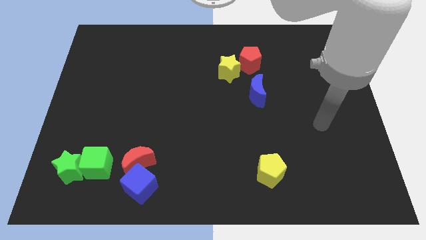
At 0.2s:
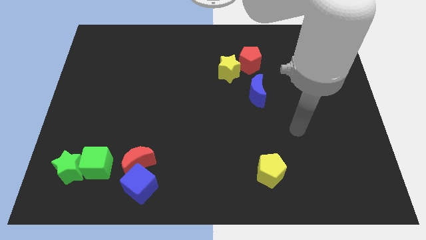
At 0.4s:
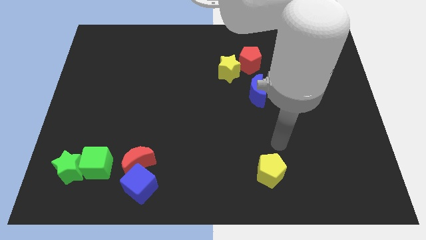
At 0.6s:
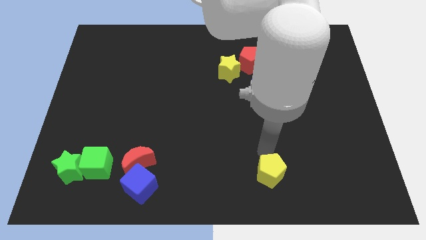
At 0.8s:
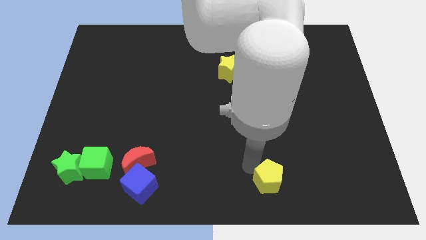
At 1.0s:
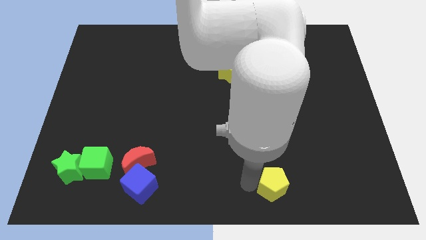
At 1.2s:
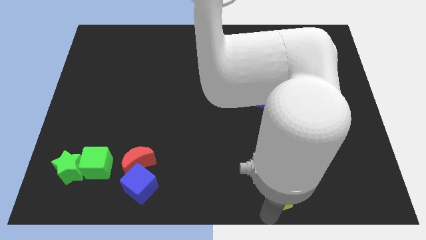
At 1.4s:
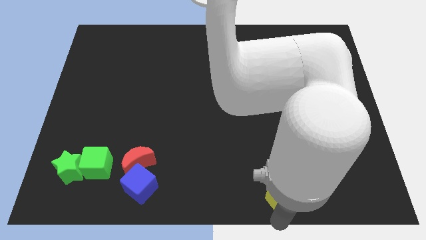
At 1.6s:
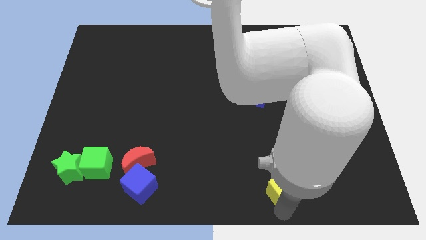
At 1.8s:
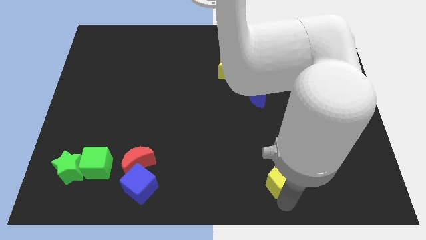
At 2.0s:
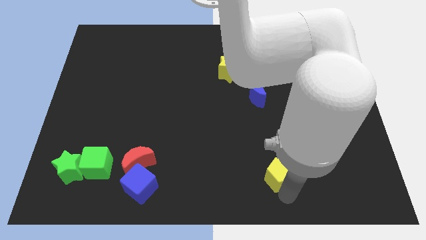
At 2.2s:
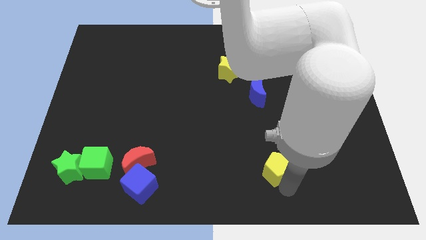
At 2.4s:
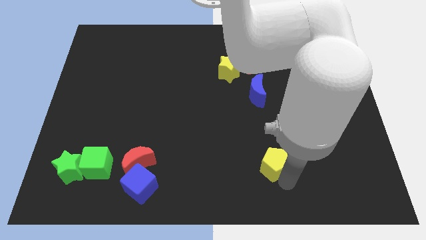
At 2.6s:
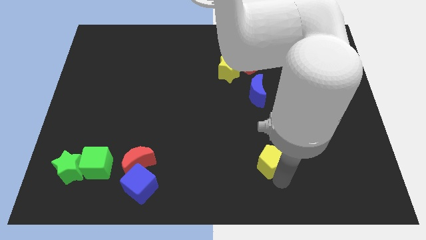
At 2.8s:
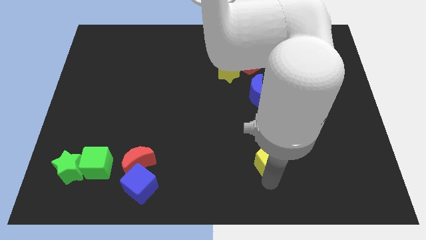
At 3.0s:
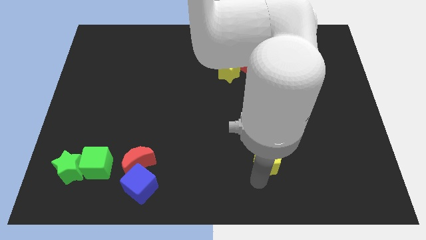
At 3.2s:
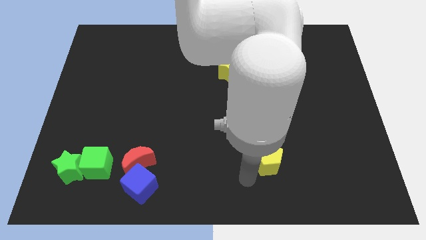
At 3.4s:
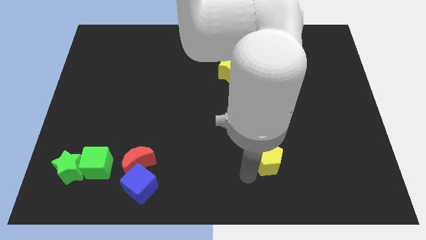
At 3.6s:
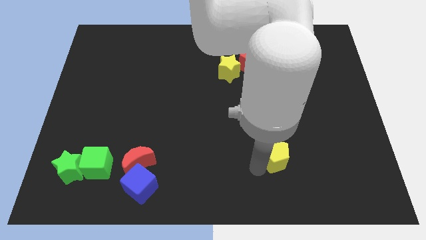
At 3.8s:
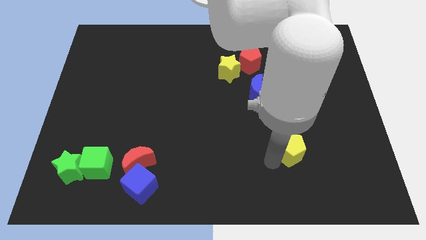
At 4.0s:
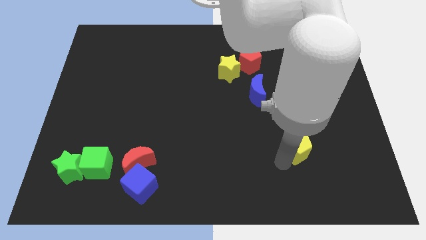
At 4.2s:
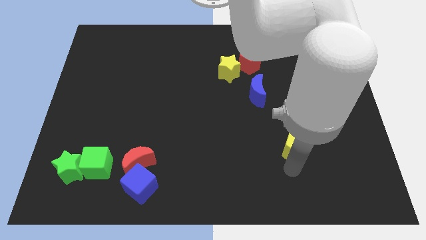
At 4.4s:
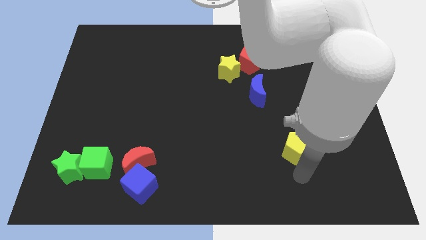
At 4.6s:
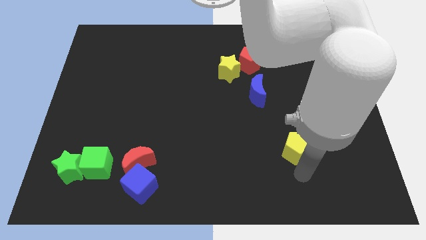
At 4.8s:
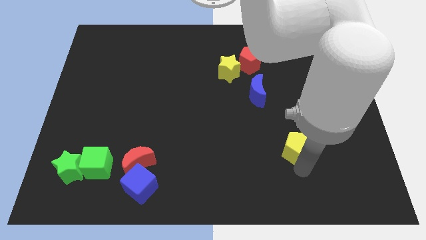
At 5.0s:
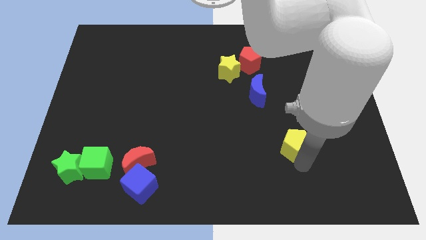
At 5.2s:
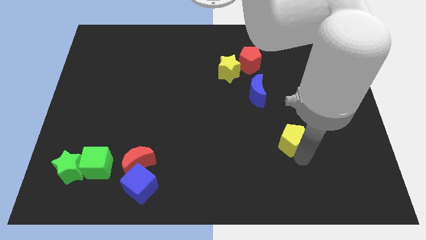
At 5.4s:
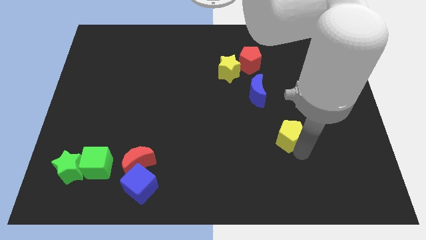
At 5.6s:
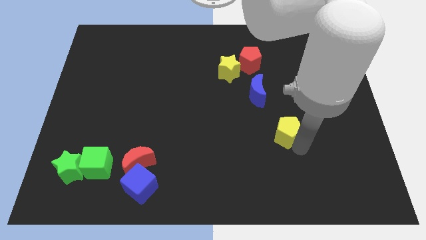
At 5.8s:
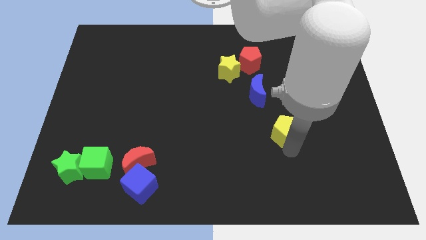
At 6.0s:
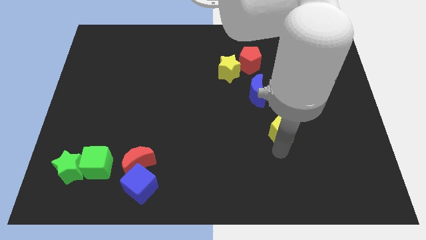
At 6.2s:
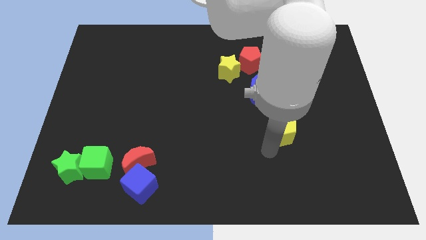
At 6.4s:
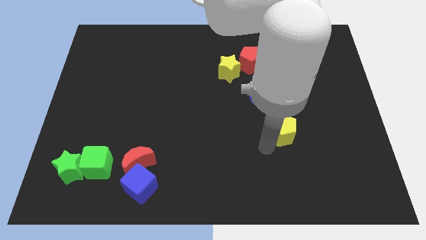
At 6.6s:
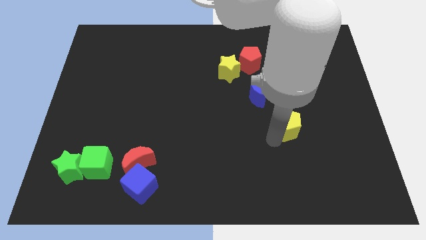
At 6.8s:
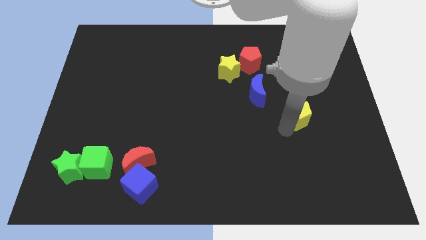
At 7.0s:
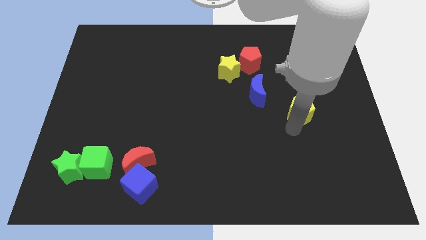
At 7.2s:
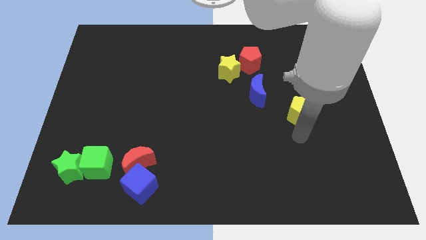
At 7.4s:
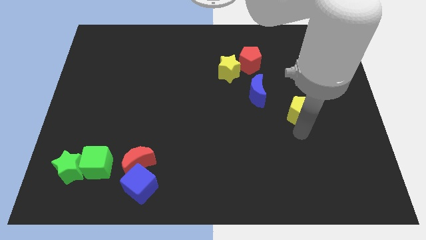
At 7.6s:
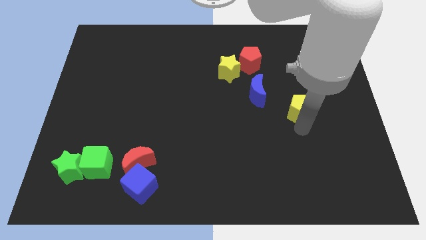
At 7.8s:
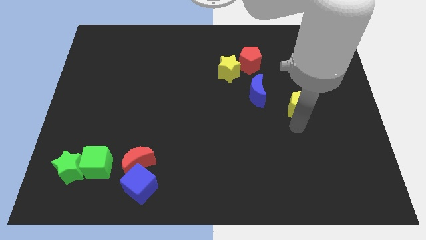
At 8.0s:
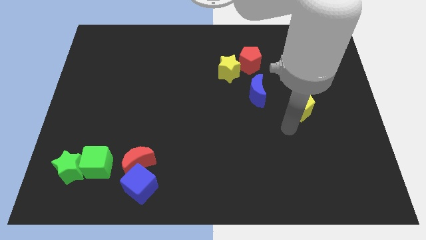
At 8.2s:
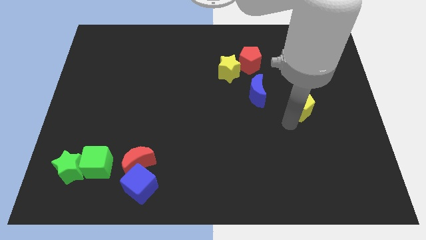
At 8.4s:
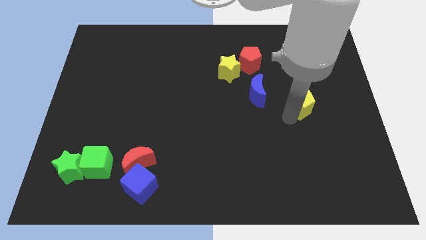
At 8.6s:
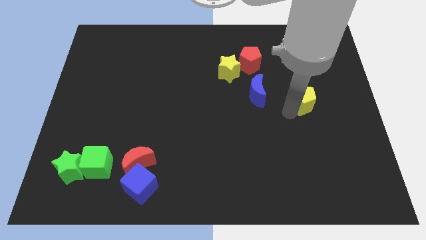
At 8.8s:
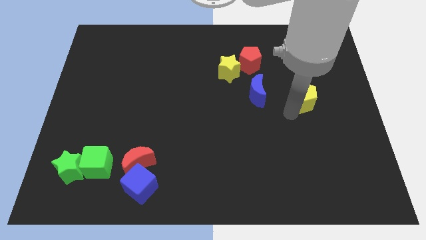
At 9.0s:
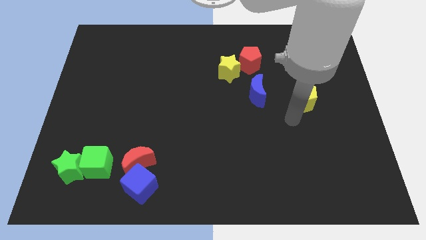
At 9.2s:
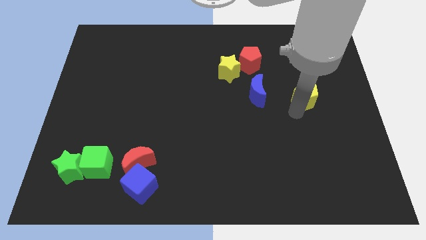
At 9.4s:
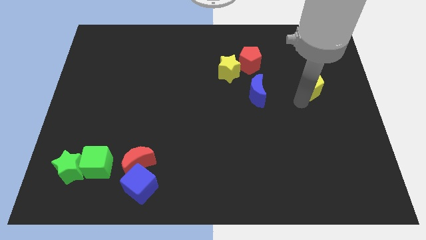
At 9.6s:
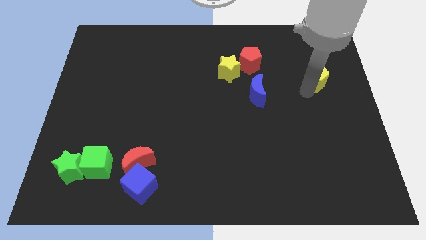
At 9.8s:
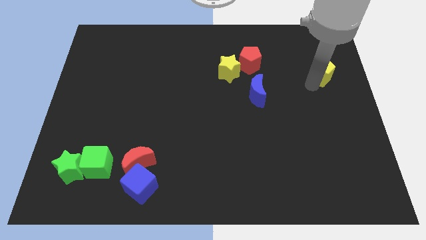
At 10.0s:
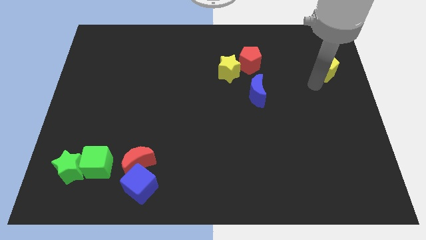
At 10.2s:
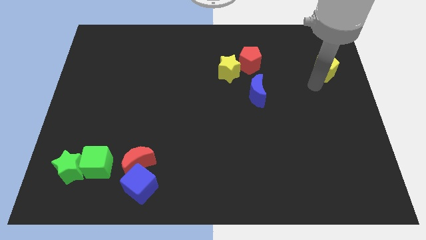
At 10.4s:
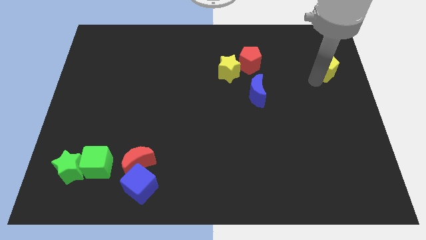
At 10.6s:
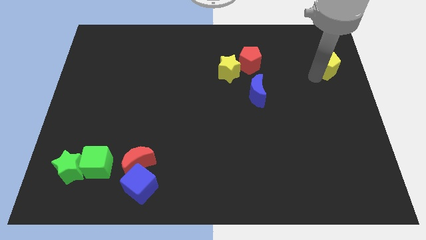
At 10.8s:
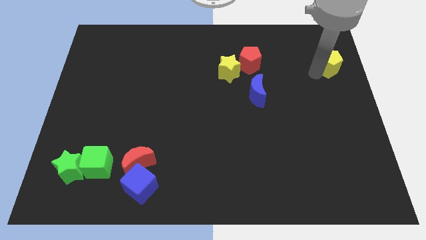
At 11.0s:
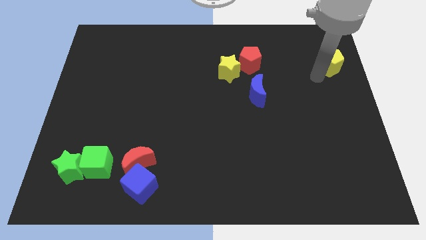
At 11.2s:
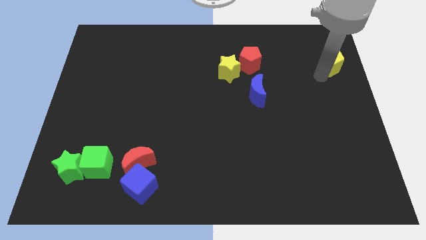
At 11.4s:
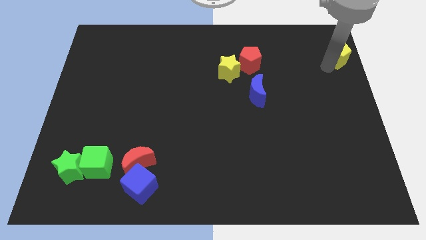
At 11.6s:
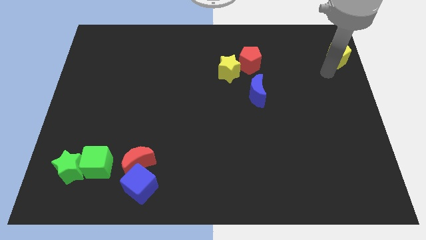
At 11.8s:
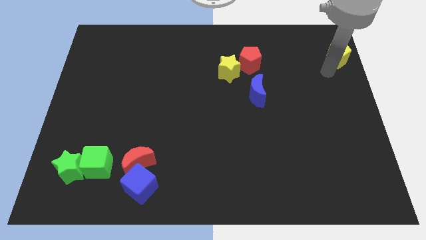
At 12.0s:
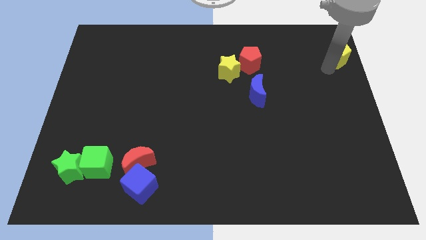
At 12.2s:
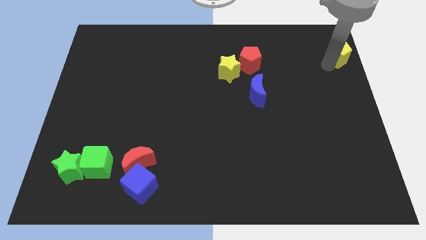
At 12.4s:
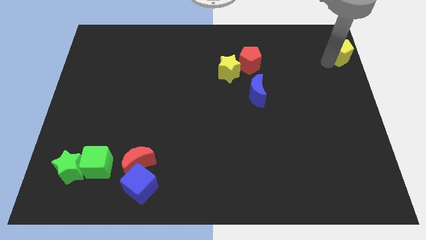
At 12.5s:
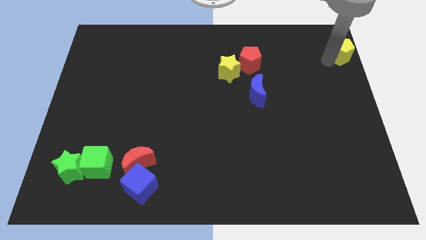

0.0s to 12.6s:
put the yellow pentagon to the top right corner
